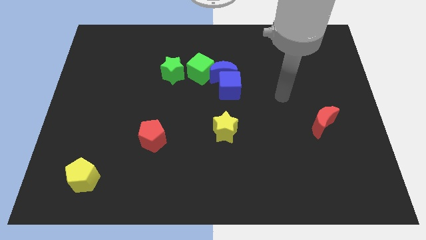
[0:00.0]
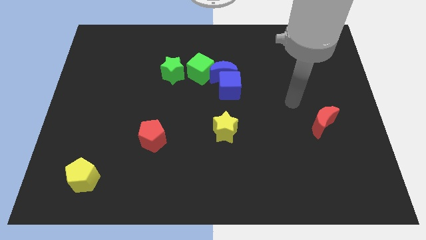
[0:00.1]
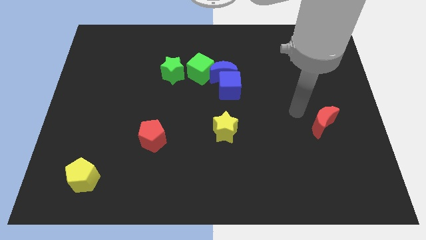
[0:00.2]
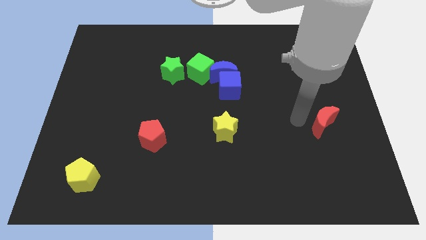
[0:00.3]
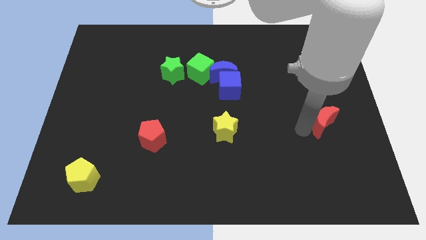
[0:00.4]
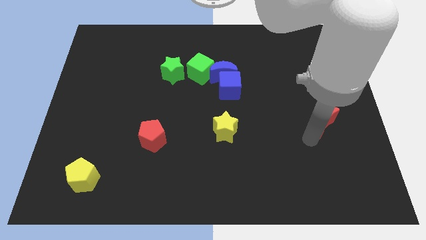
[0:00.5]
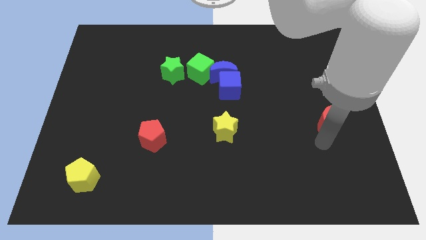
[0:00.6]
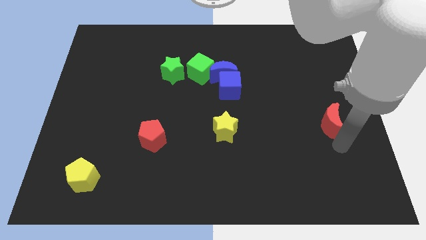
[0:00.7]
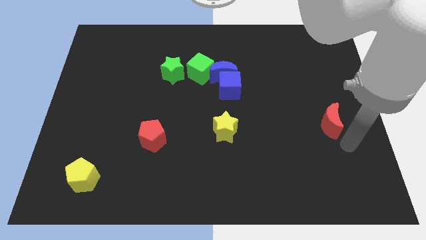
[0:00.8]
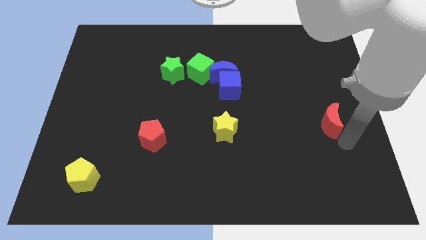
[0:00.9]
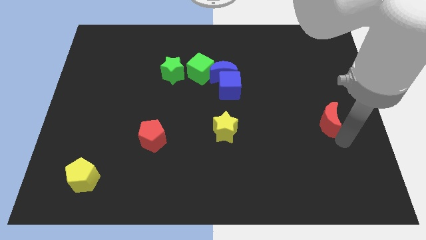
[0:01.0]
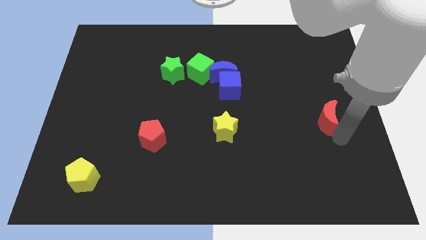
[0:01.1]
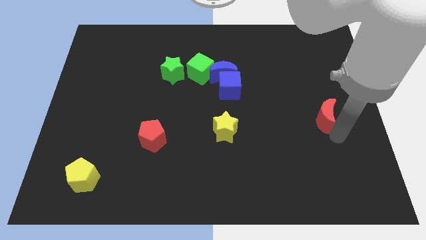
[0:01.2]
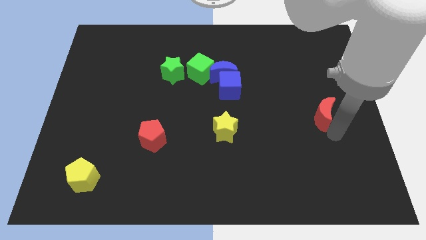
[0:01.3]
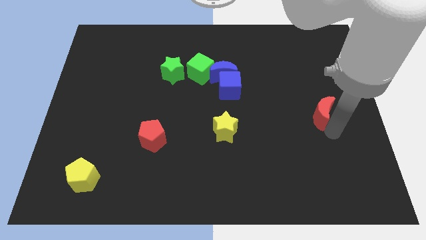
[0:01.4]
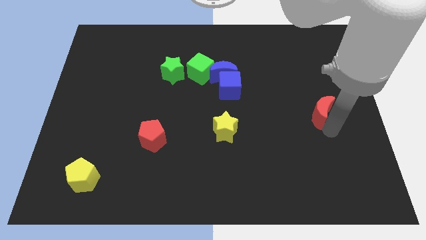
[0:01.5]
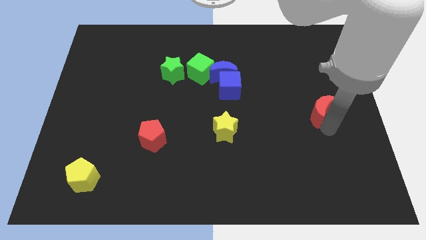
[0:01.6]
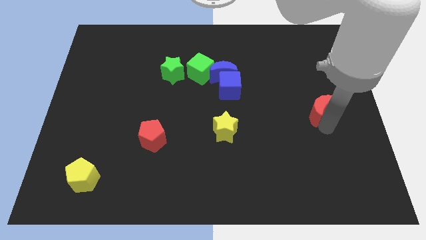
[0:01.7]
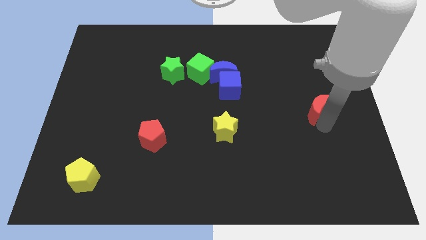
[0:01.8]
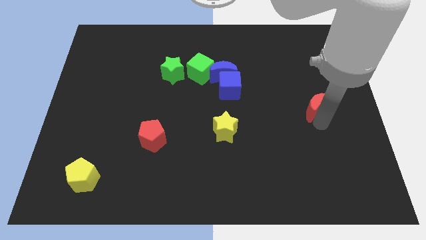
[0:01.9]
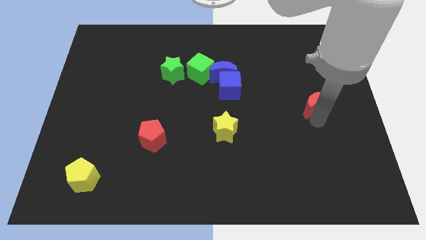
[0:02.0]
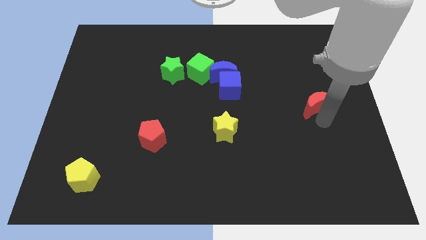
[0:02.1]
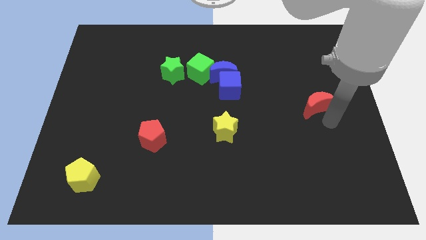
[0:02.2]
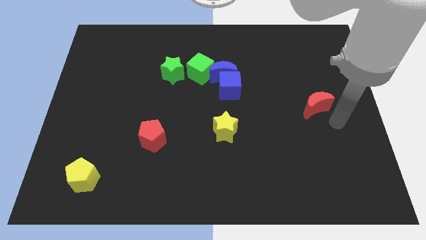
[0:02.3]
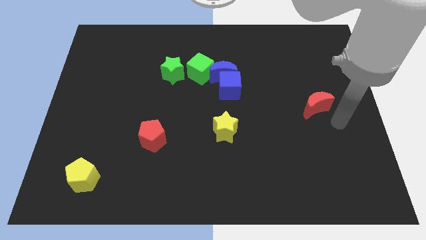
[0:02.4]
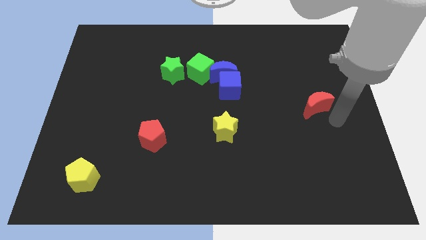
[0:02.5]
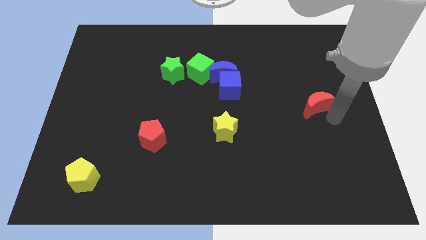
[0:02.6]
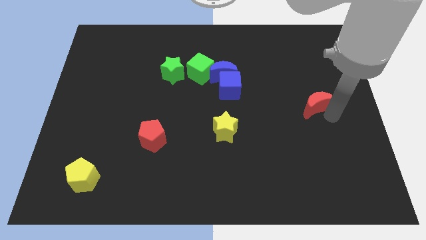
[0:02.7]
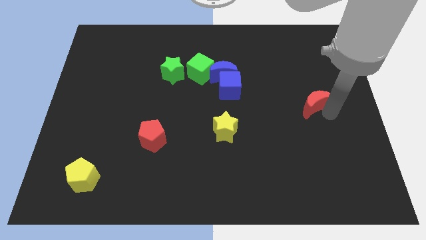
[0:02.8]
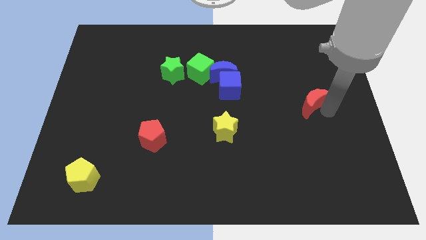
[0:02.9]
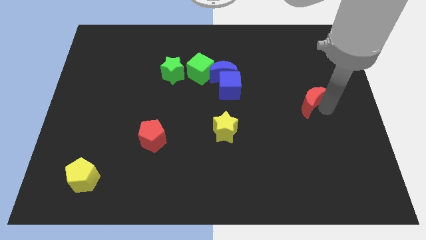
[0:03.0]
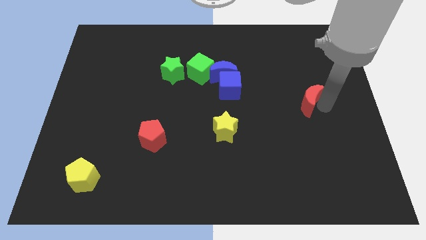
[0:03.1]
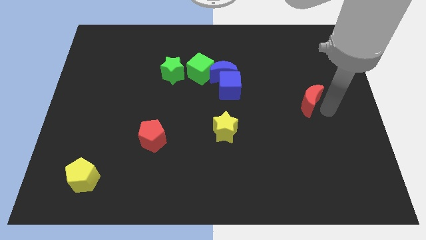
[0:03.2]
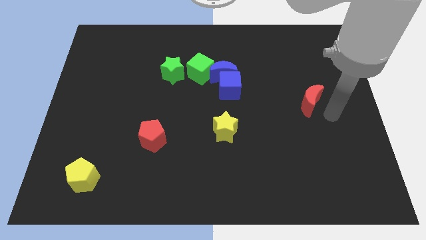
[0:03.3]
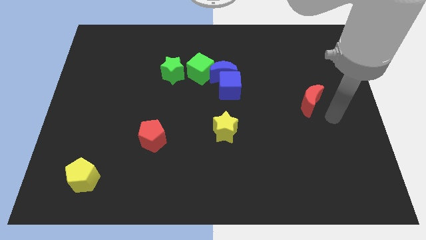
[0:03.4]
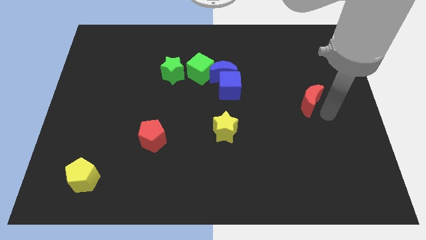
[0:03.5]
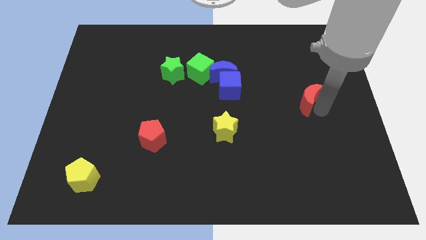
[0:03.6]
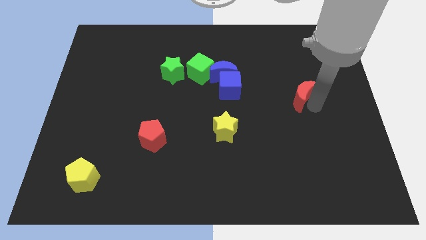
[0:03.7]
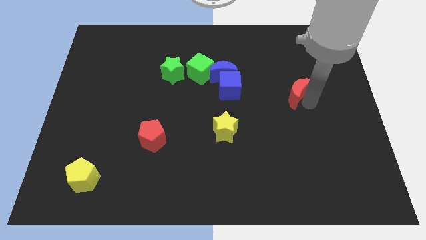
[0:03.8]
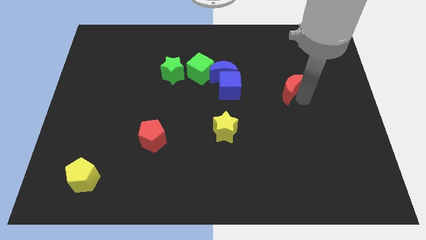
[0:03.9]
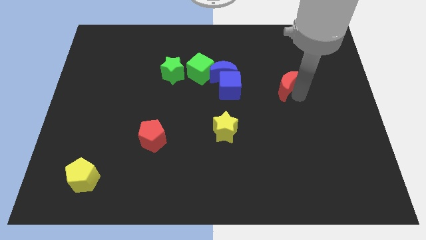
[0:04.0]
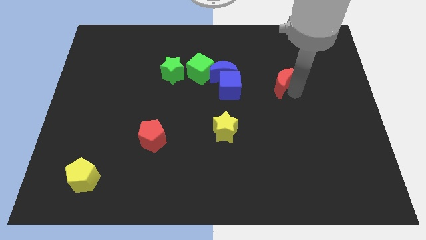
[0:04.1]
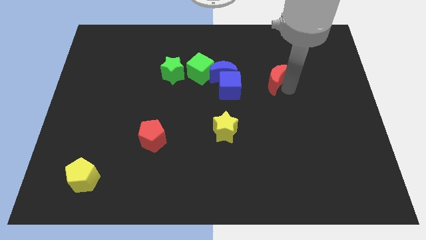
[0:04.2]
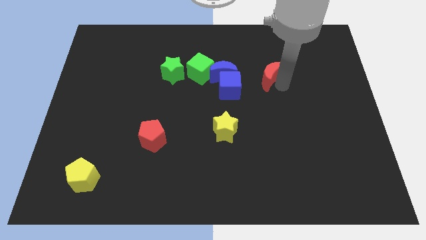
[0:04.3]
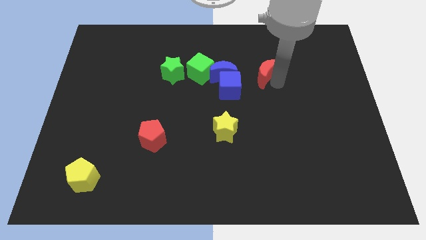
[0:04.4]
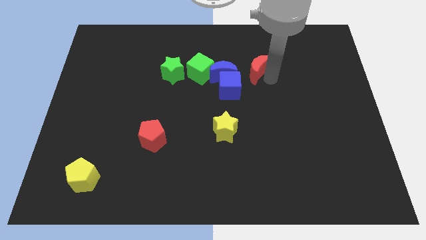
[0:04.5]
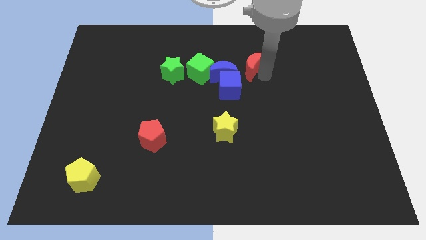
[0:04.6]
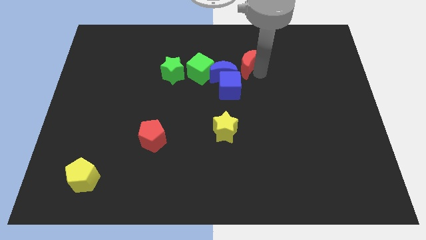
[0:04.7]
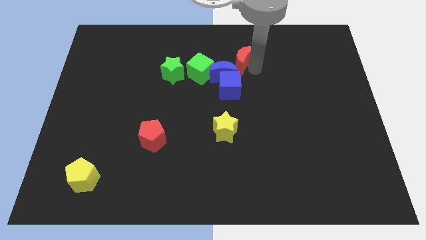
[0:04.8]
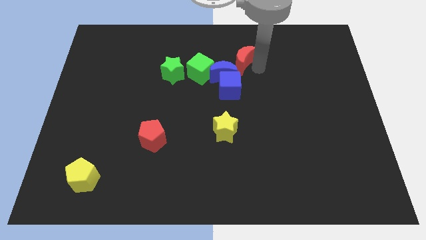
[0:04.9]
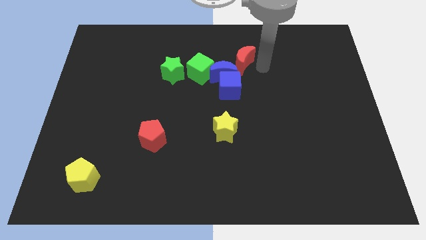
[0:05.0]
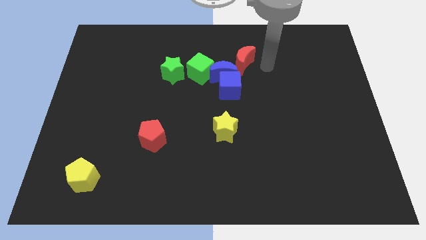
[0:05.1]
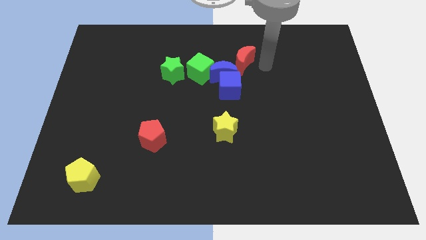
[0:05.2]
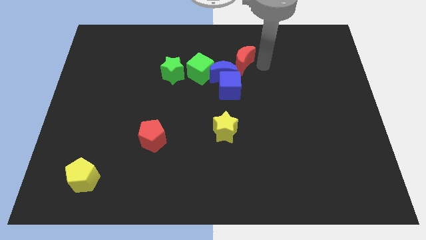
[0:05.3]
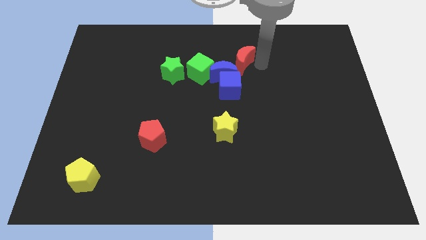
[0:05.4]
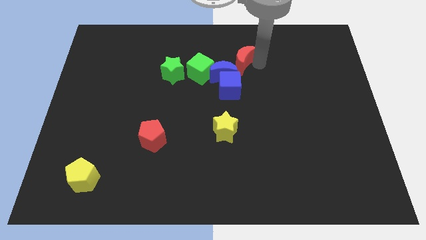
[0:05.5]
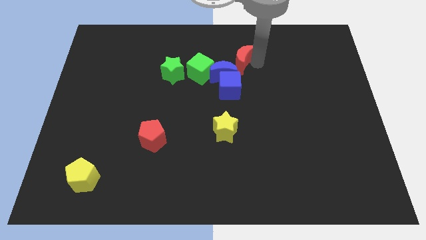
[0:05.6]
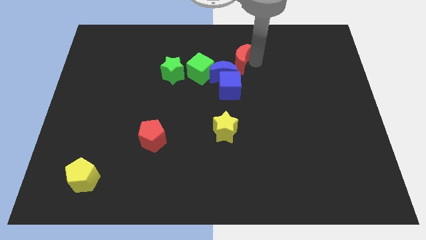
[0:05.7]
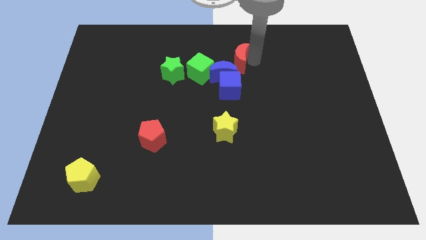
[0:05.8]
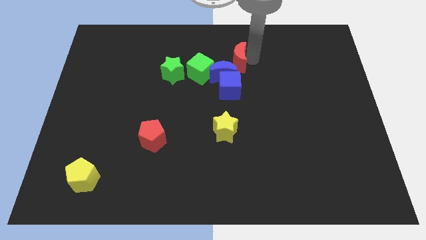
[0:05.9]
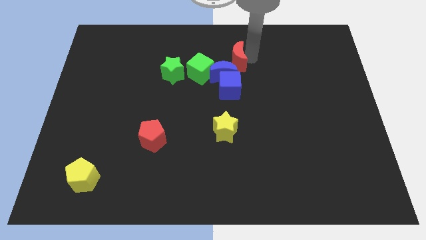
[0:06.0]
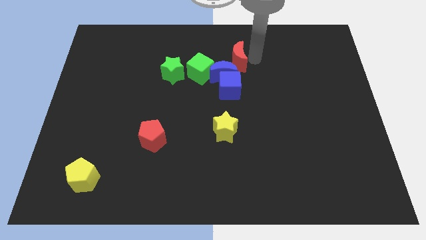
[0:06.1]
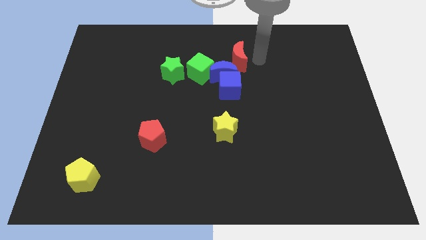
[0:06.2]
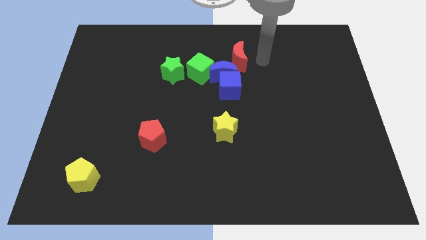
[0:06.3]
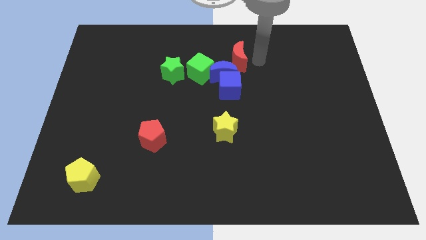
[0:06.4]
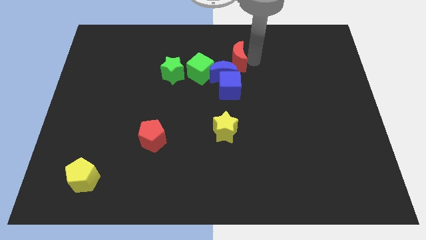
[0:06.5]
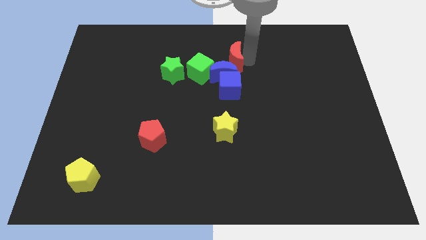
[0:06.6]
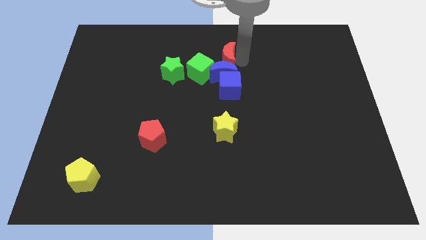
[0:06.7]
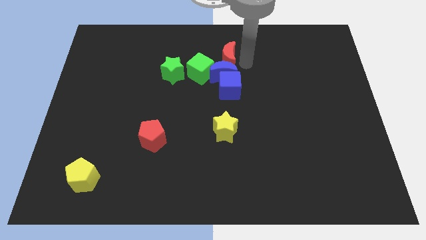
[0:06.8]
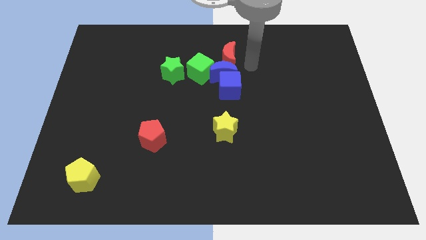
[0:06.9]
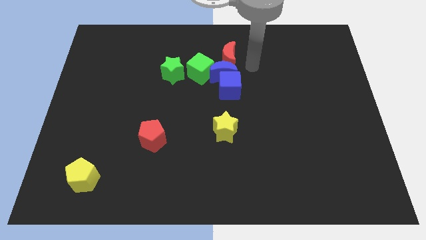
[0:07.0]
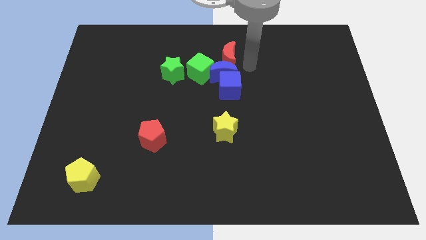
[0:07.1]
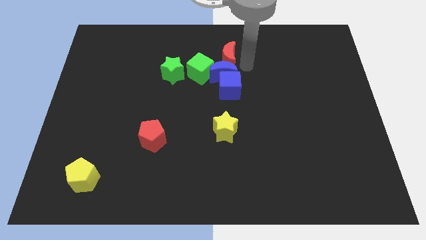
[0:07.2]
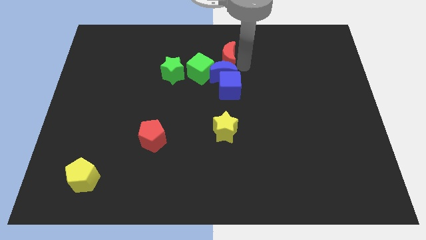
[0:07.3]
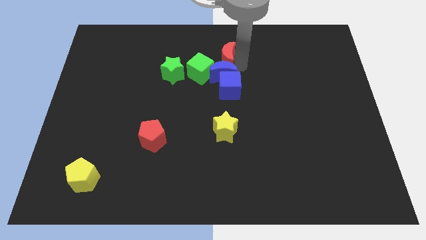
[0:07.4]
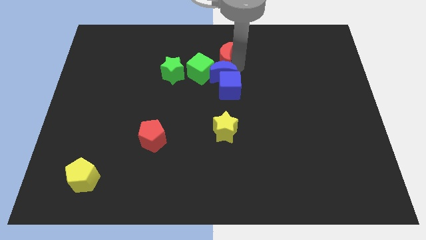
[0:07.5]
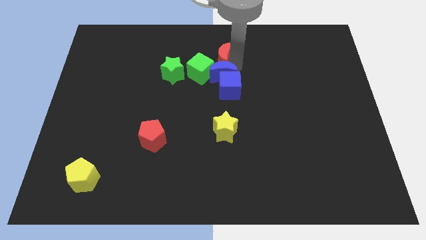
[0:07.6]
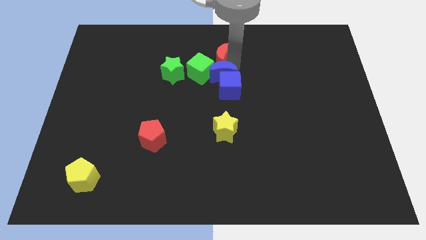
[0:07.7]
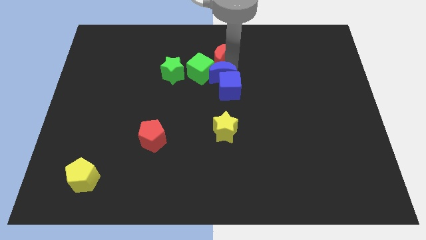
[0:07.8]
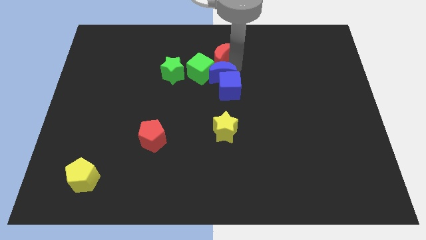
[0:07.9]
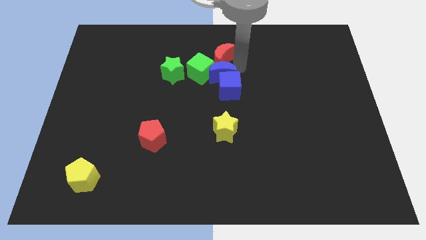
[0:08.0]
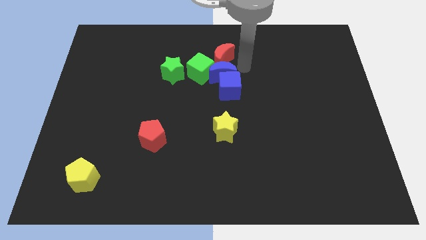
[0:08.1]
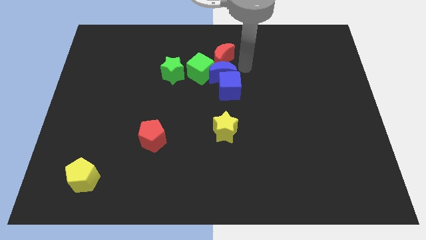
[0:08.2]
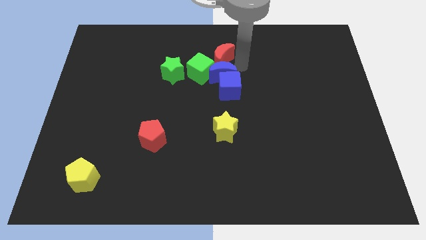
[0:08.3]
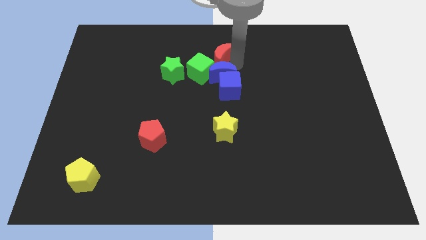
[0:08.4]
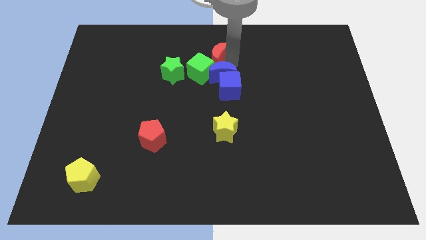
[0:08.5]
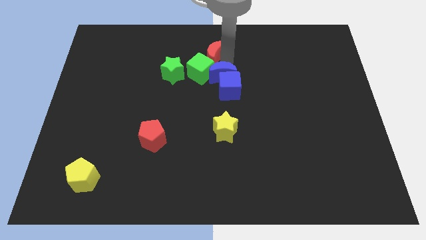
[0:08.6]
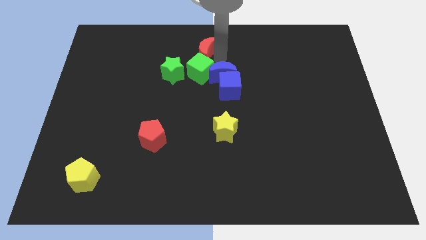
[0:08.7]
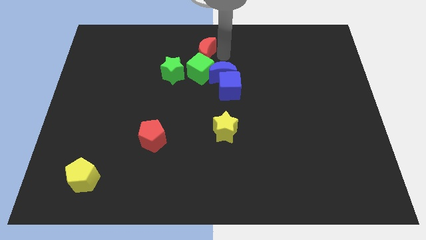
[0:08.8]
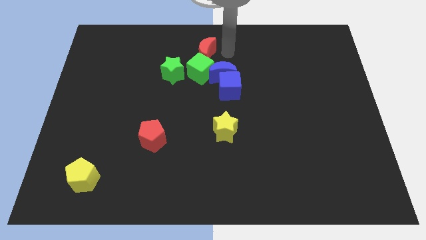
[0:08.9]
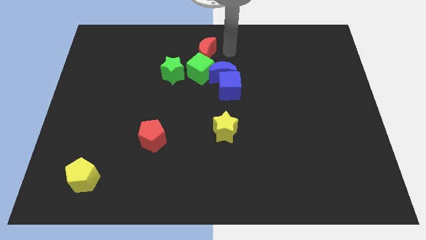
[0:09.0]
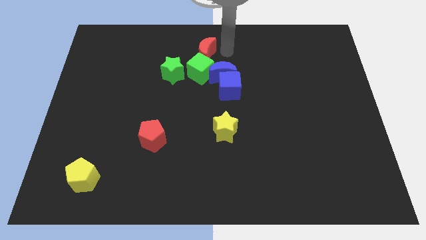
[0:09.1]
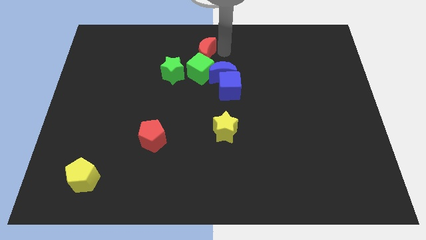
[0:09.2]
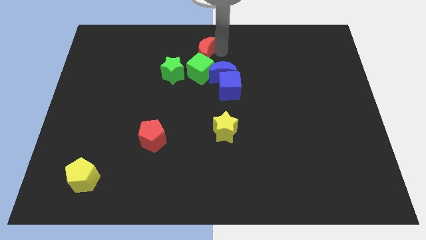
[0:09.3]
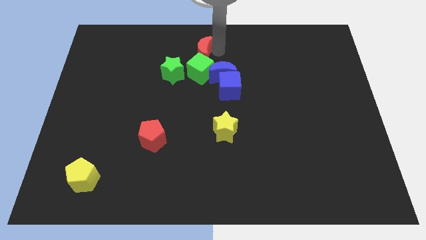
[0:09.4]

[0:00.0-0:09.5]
move the red moon to the top left side of the green cube
